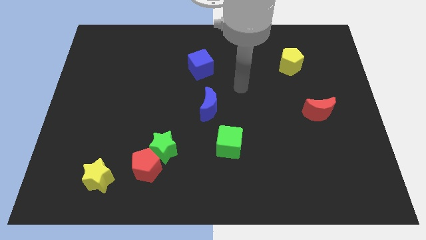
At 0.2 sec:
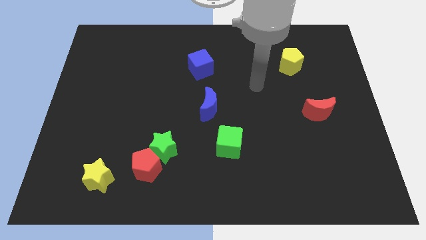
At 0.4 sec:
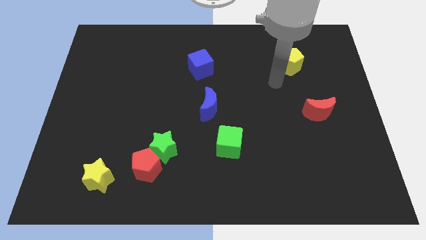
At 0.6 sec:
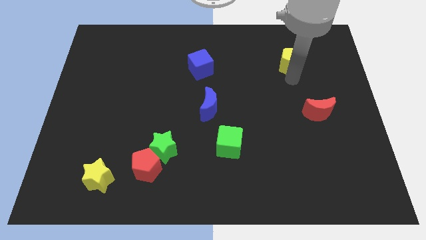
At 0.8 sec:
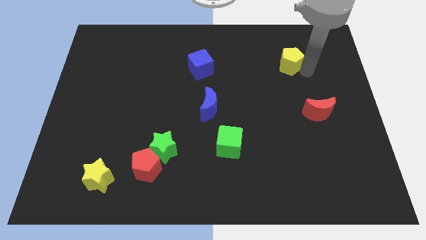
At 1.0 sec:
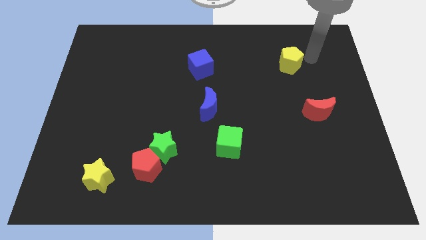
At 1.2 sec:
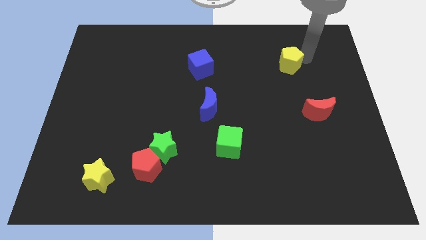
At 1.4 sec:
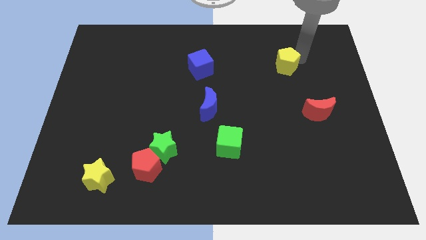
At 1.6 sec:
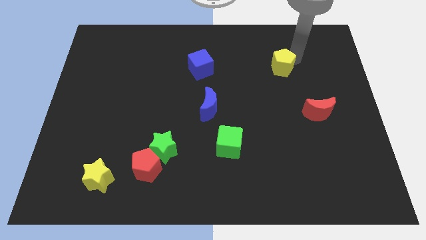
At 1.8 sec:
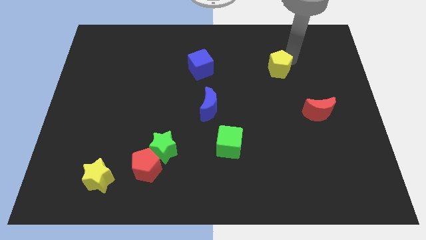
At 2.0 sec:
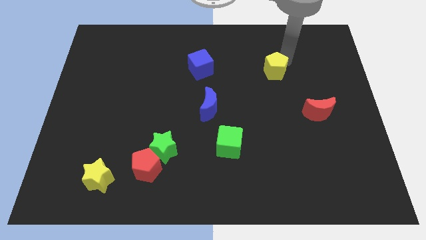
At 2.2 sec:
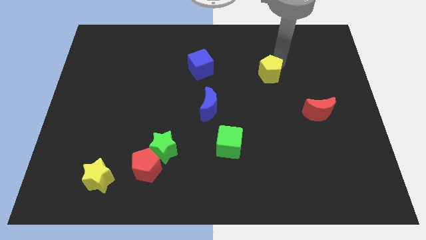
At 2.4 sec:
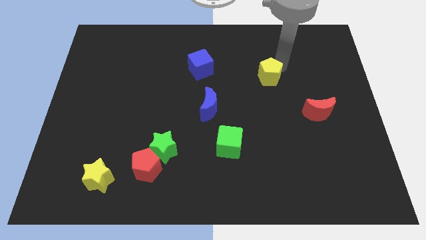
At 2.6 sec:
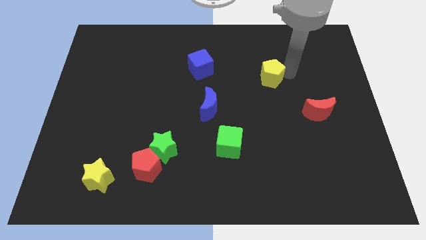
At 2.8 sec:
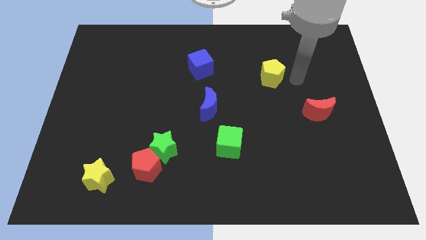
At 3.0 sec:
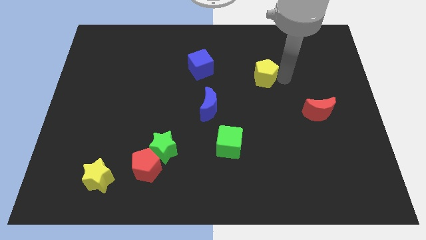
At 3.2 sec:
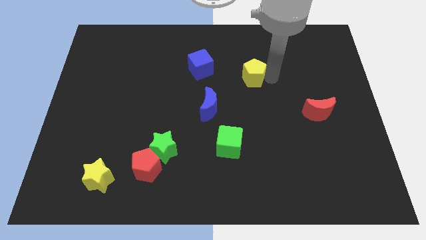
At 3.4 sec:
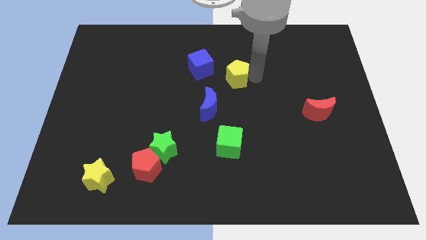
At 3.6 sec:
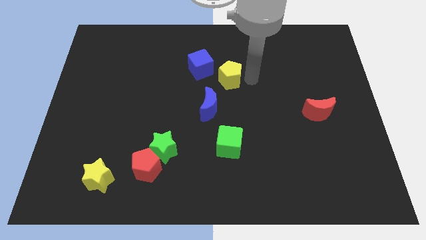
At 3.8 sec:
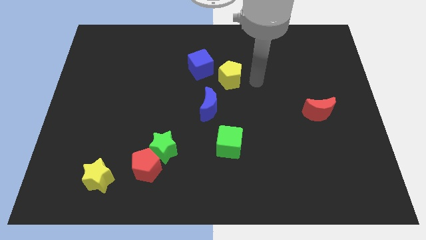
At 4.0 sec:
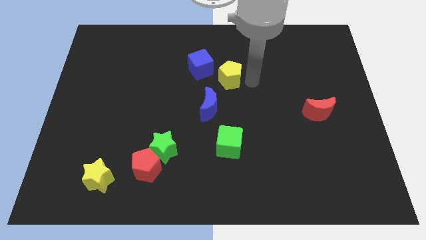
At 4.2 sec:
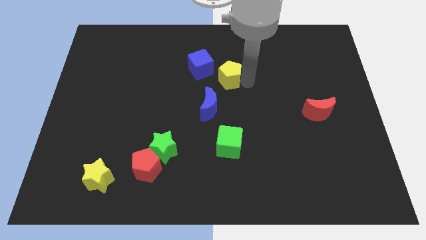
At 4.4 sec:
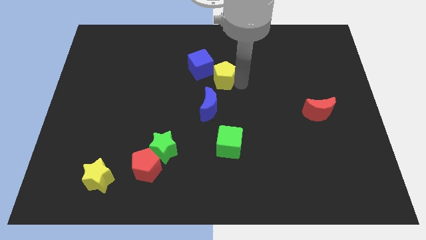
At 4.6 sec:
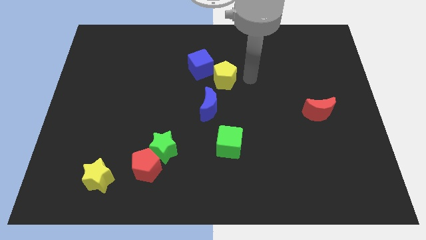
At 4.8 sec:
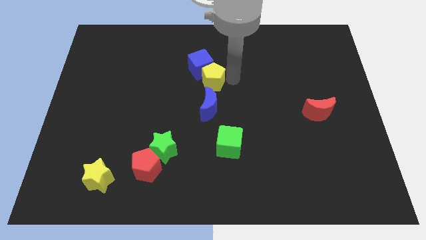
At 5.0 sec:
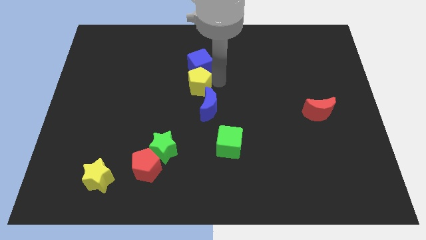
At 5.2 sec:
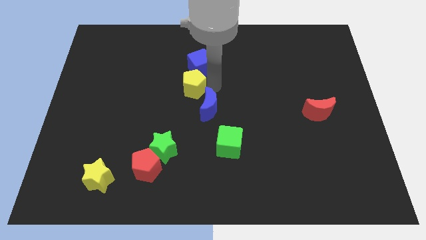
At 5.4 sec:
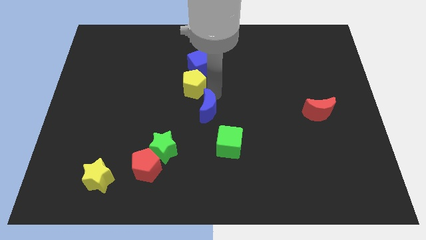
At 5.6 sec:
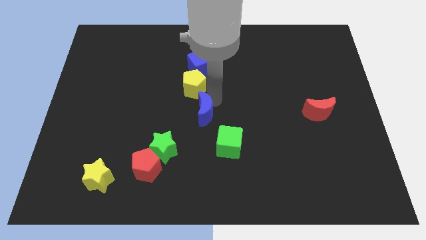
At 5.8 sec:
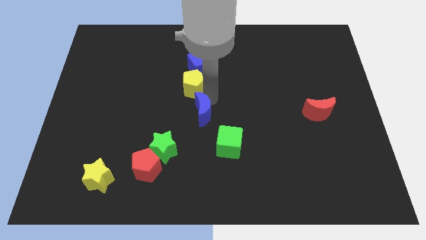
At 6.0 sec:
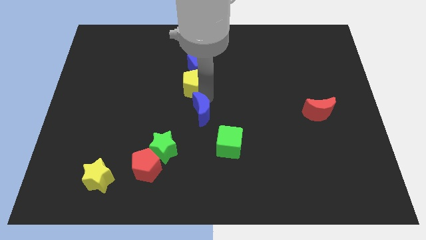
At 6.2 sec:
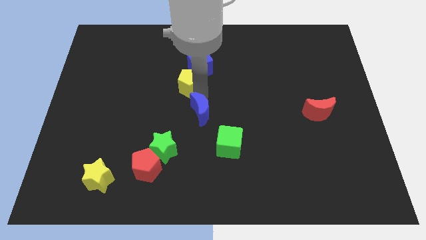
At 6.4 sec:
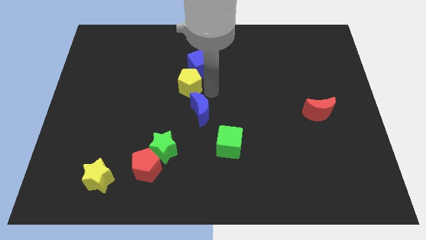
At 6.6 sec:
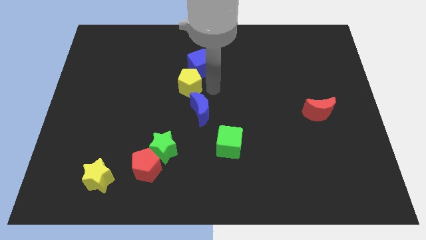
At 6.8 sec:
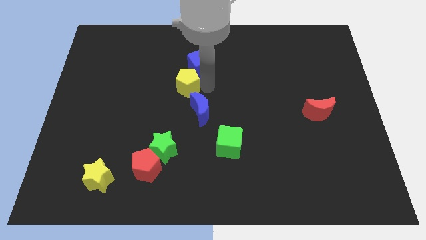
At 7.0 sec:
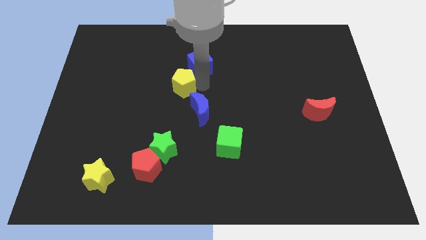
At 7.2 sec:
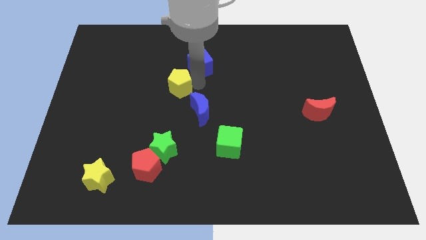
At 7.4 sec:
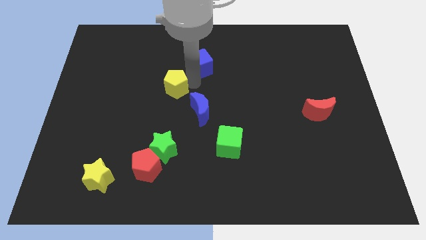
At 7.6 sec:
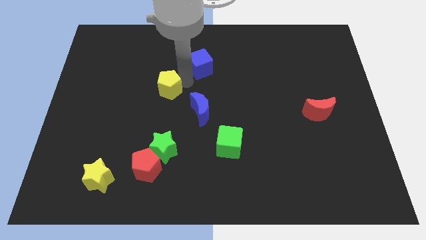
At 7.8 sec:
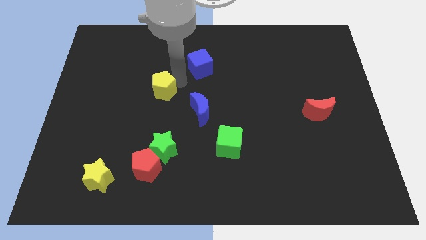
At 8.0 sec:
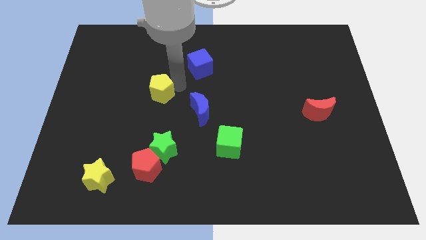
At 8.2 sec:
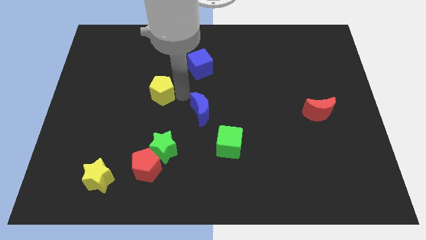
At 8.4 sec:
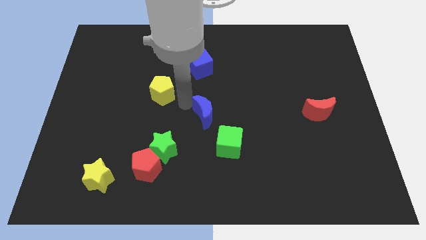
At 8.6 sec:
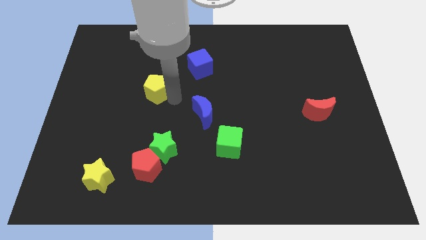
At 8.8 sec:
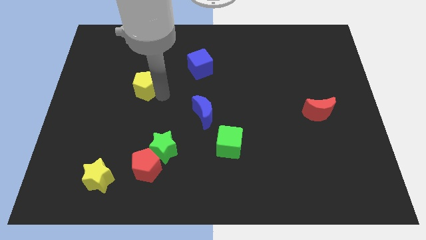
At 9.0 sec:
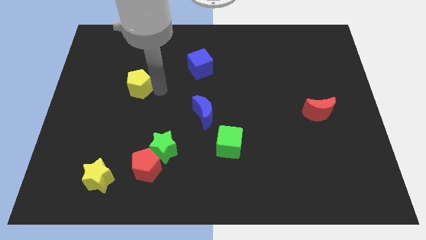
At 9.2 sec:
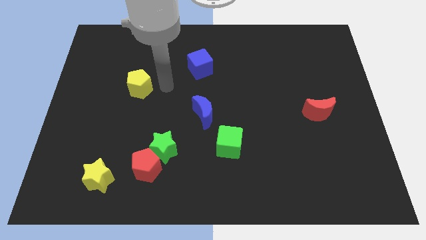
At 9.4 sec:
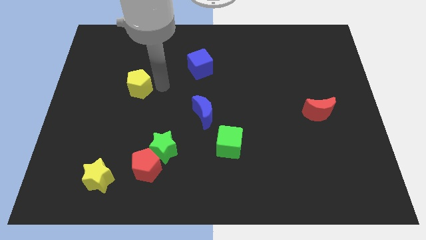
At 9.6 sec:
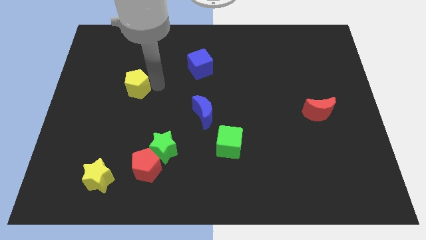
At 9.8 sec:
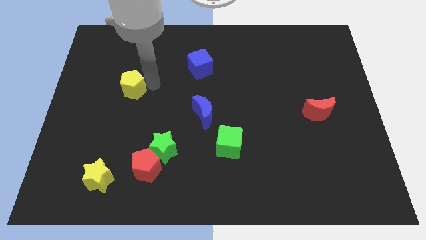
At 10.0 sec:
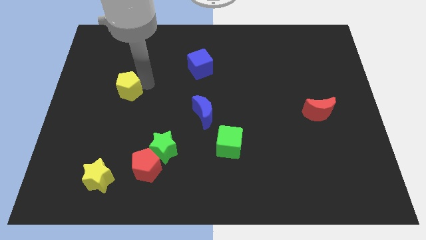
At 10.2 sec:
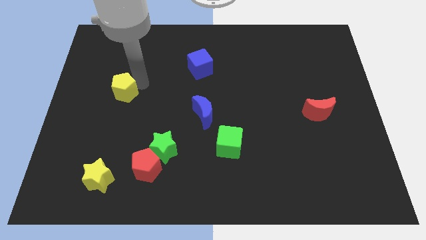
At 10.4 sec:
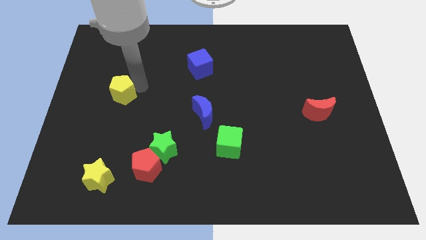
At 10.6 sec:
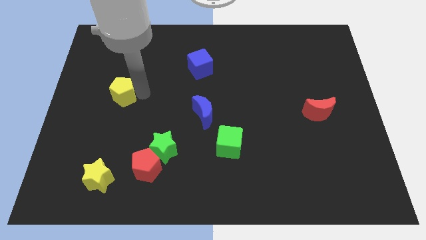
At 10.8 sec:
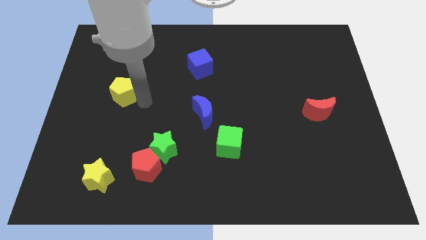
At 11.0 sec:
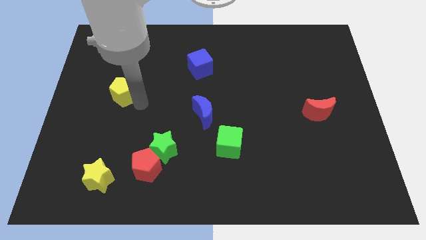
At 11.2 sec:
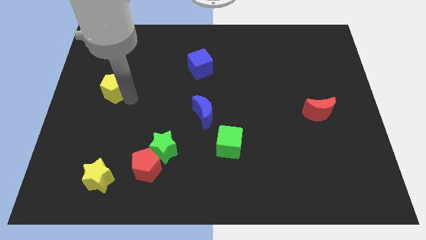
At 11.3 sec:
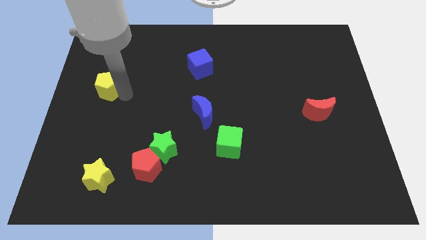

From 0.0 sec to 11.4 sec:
move the yellow pentagon to the left side
